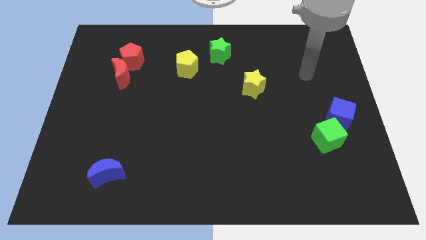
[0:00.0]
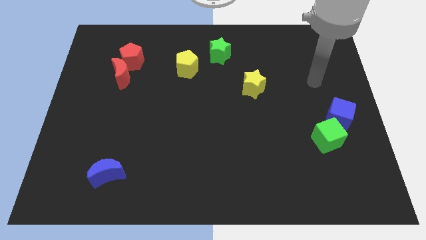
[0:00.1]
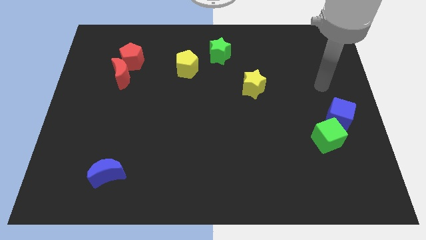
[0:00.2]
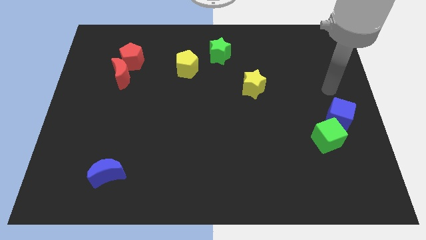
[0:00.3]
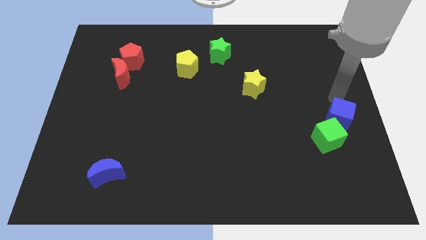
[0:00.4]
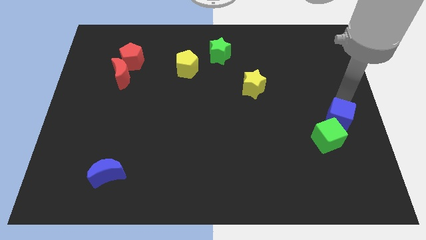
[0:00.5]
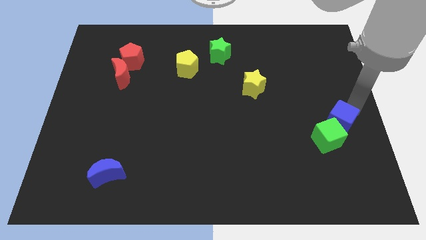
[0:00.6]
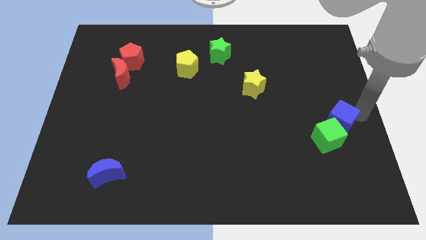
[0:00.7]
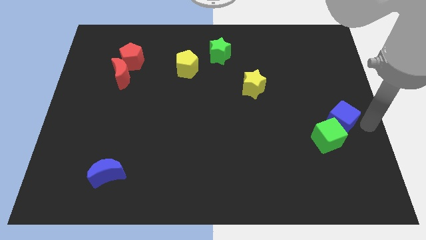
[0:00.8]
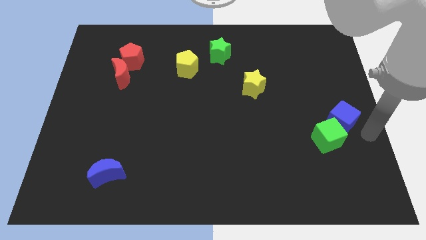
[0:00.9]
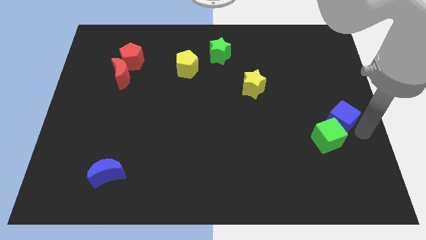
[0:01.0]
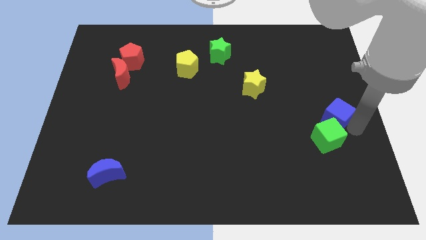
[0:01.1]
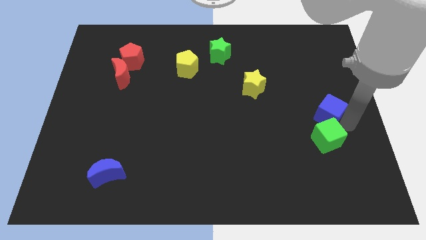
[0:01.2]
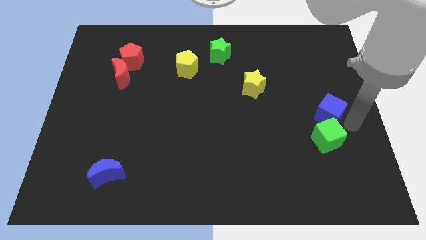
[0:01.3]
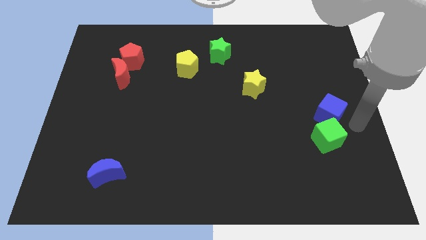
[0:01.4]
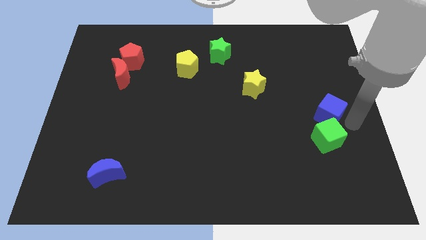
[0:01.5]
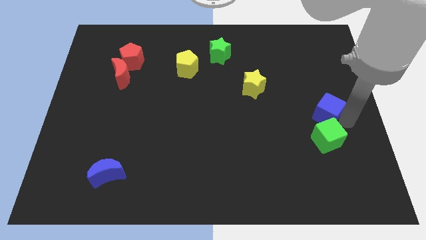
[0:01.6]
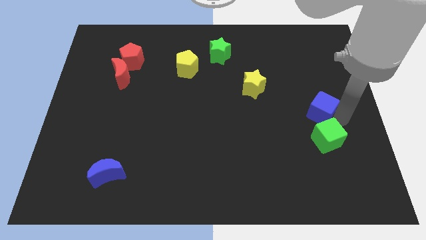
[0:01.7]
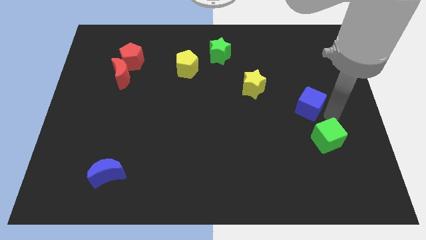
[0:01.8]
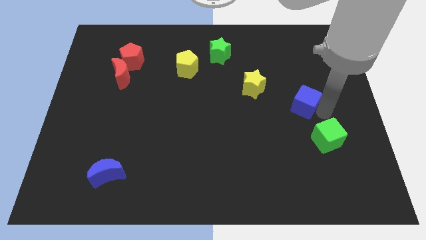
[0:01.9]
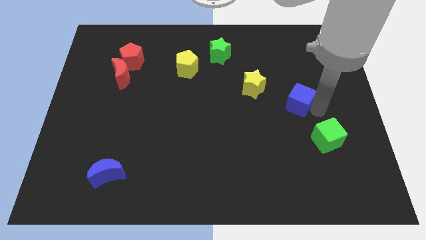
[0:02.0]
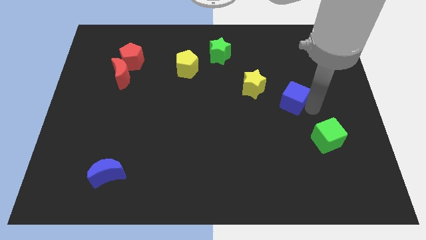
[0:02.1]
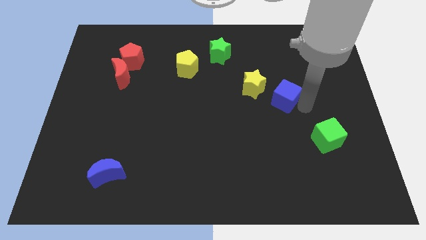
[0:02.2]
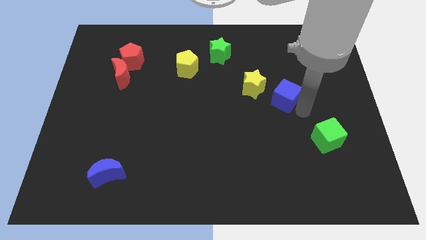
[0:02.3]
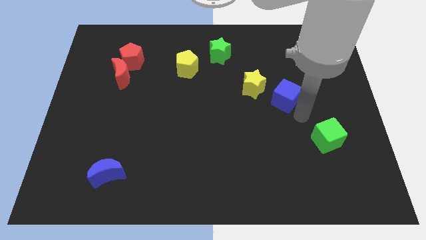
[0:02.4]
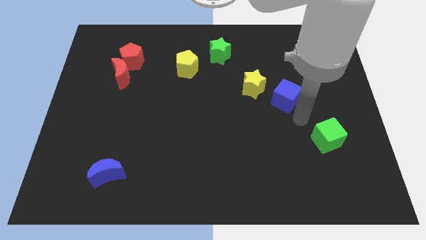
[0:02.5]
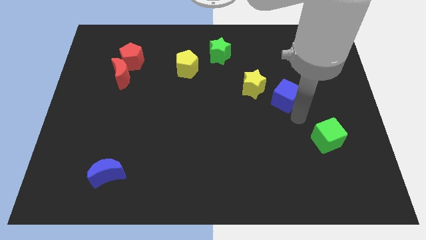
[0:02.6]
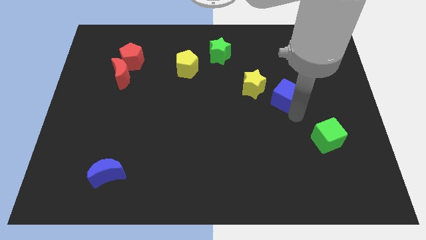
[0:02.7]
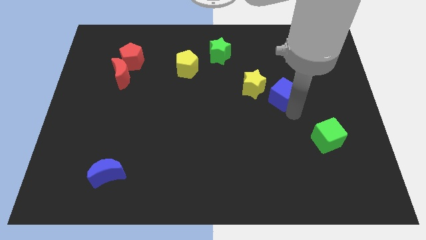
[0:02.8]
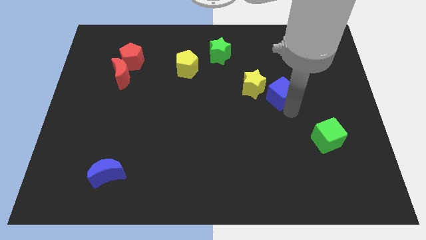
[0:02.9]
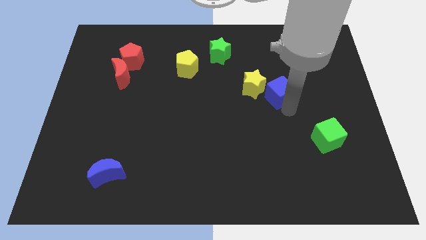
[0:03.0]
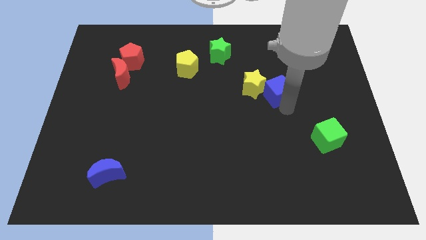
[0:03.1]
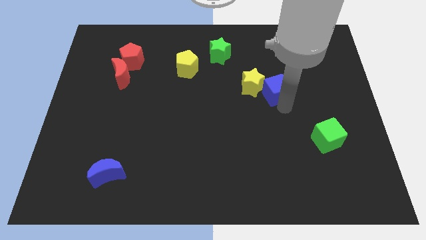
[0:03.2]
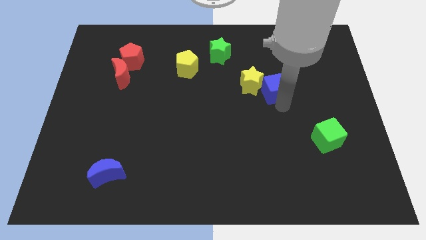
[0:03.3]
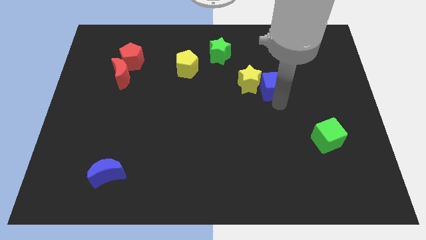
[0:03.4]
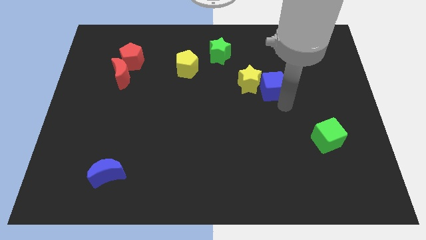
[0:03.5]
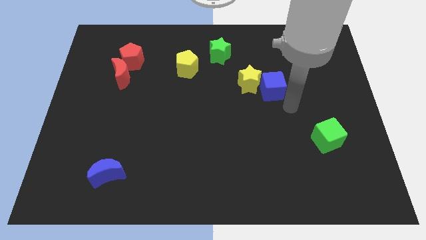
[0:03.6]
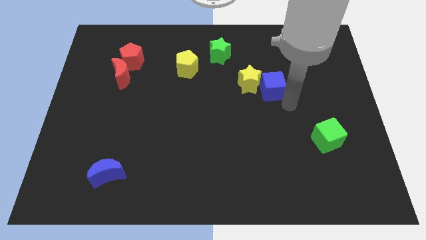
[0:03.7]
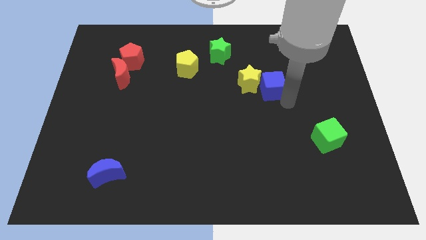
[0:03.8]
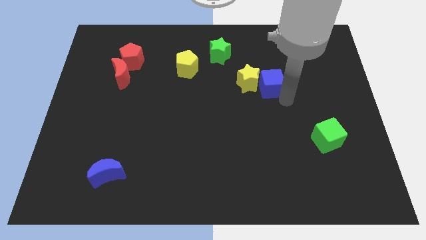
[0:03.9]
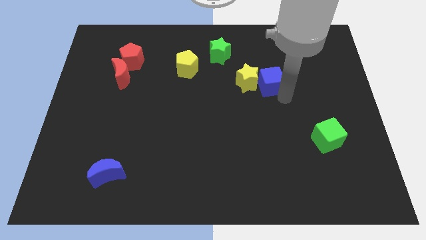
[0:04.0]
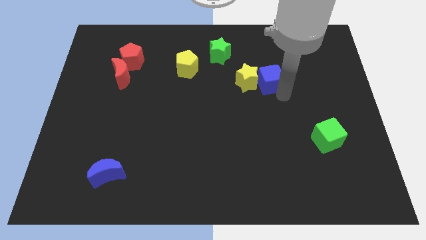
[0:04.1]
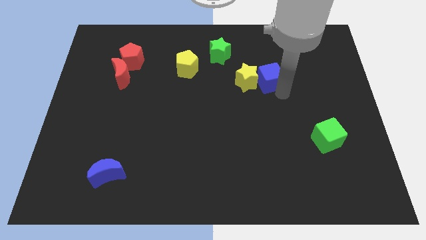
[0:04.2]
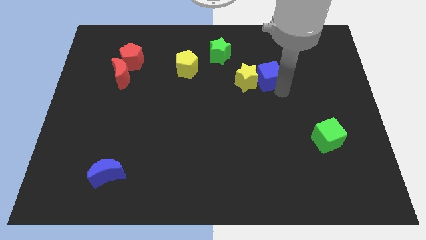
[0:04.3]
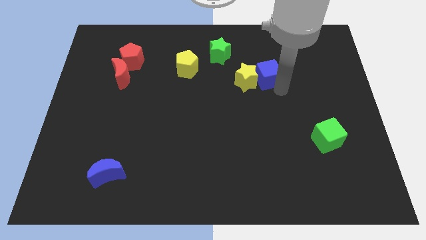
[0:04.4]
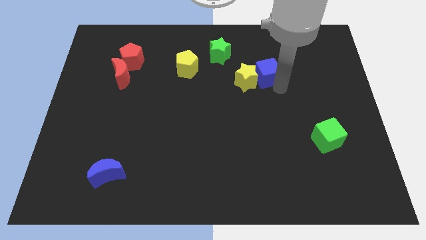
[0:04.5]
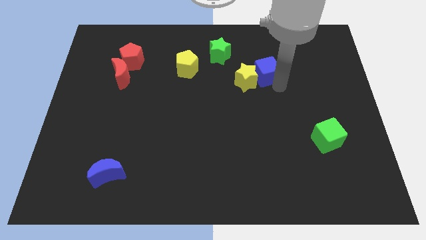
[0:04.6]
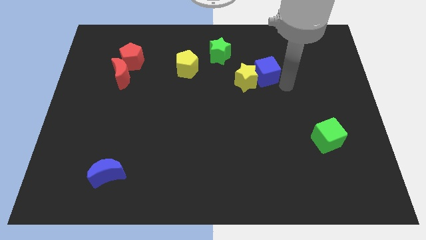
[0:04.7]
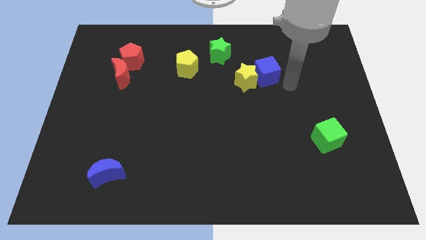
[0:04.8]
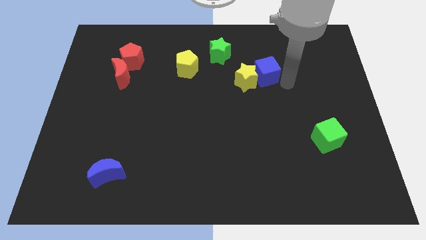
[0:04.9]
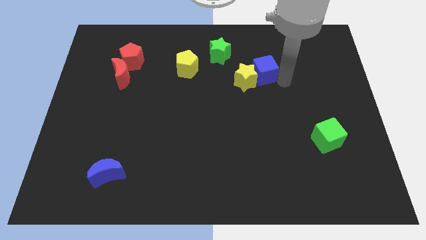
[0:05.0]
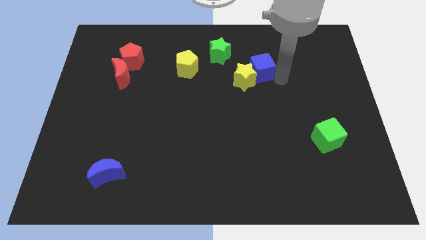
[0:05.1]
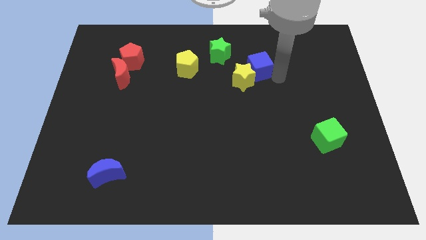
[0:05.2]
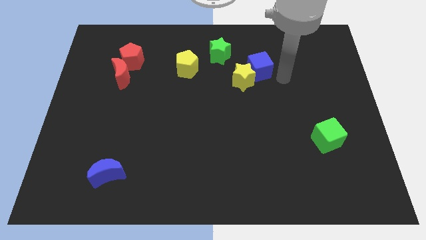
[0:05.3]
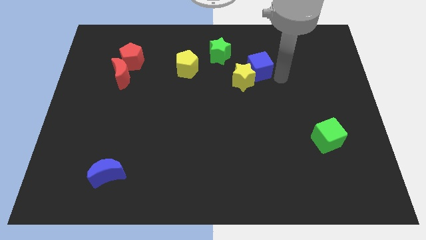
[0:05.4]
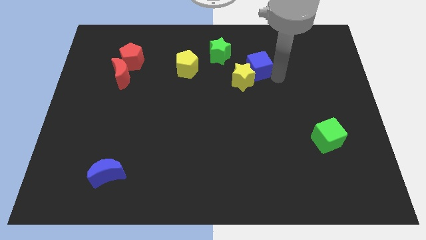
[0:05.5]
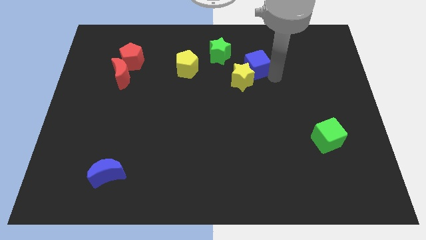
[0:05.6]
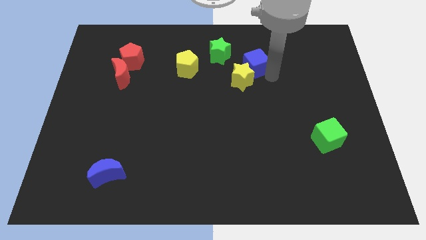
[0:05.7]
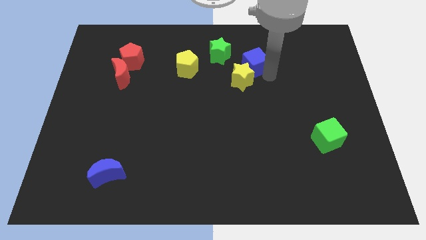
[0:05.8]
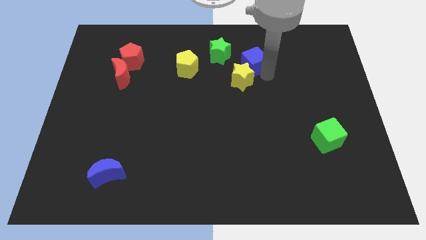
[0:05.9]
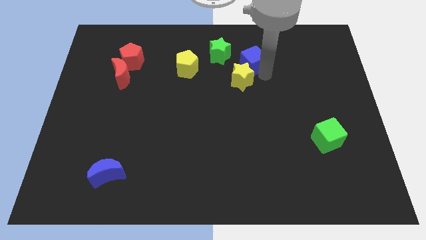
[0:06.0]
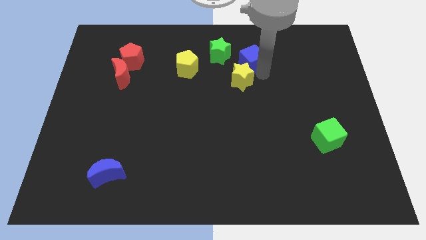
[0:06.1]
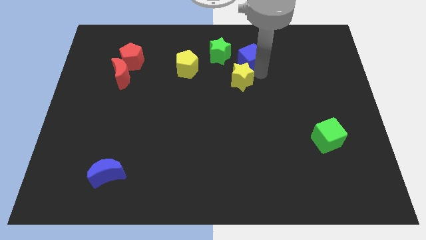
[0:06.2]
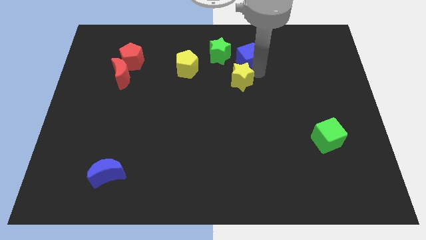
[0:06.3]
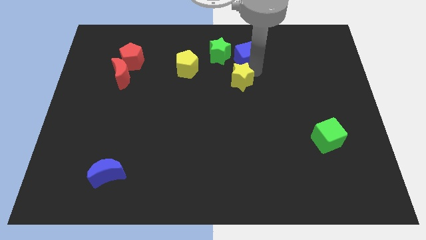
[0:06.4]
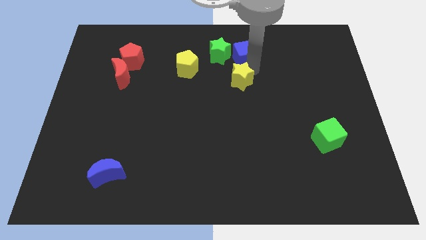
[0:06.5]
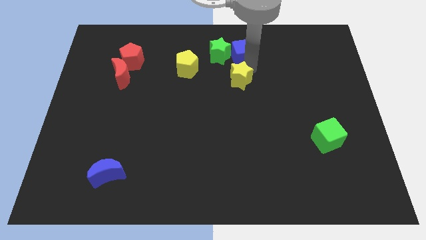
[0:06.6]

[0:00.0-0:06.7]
push the blue cube to the green star

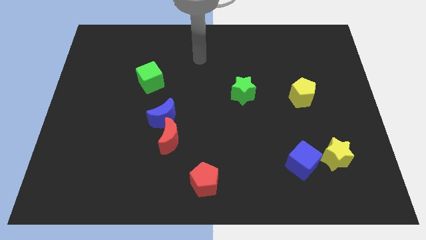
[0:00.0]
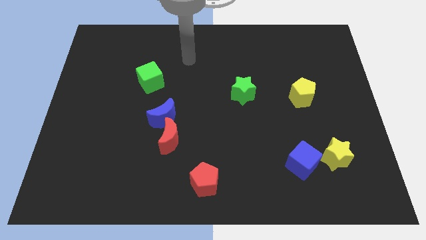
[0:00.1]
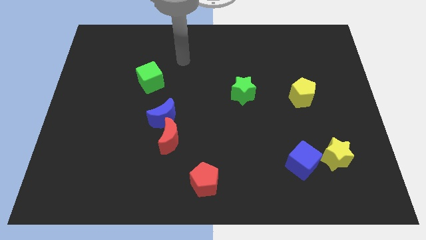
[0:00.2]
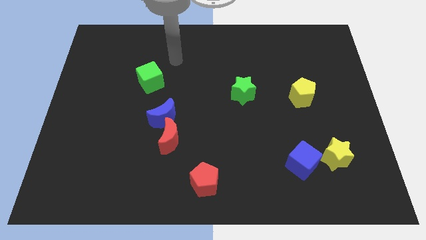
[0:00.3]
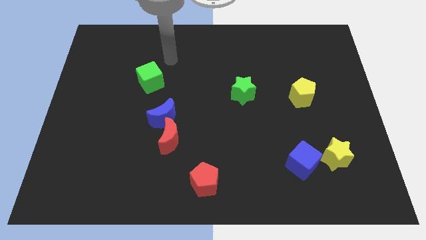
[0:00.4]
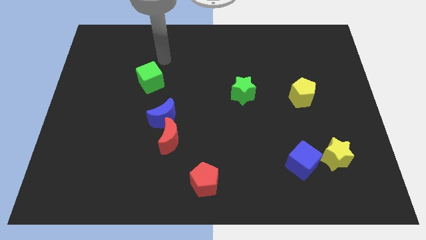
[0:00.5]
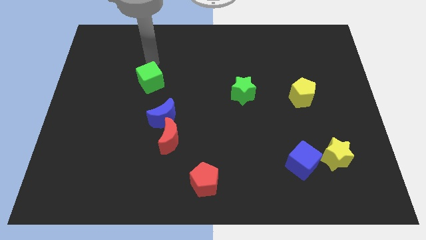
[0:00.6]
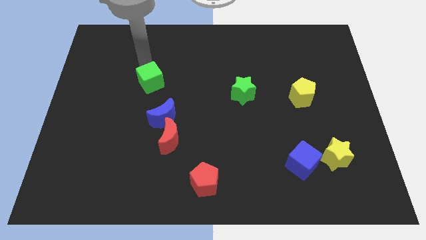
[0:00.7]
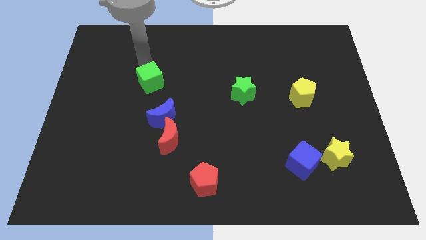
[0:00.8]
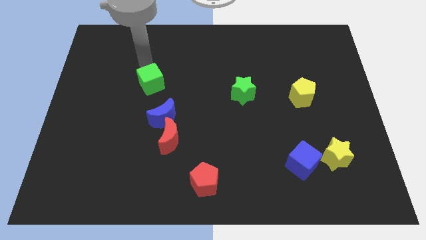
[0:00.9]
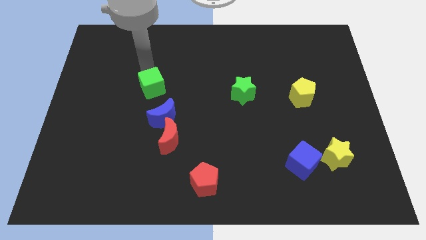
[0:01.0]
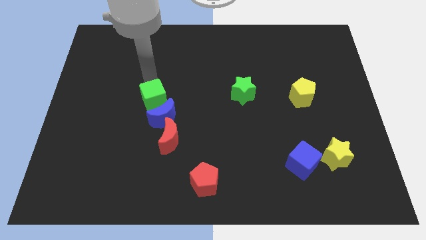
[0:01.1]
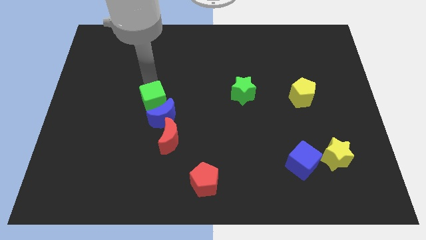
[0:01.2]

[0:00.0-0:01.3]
push the green cube next to the blue moon
